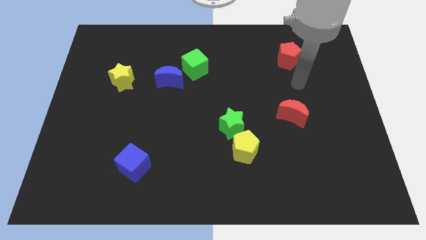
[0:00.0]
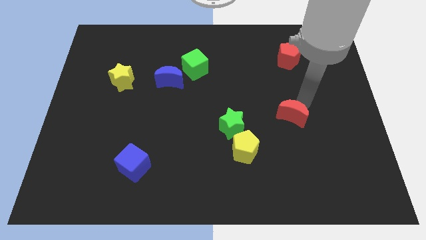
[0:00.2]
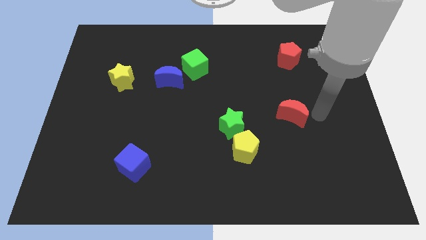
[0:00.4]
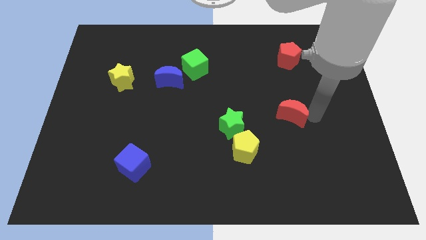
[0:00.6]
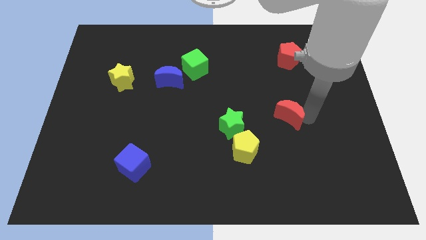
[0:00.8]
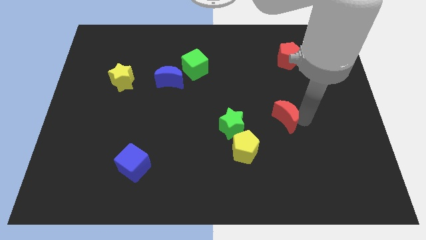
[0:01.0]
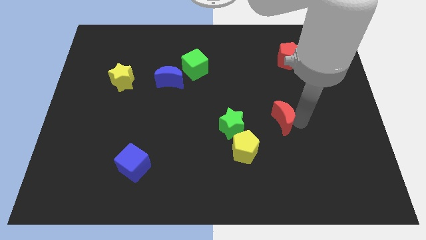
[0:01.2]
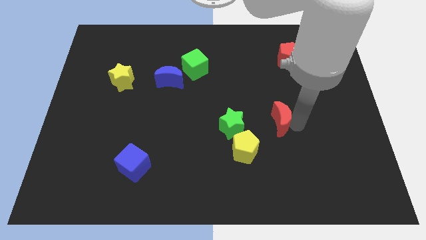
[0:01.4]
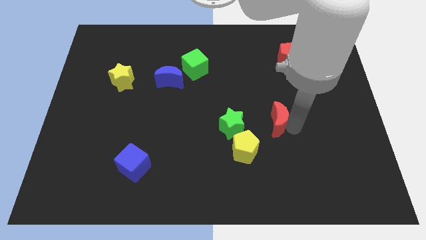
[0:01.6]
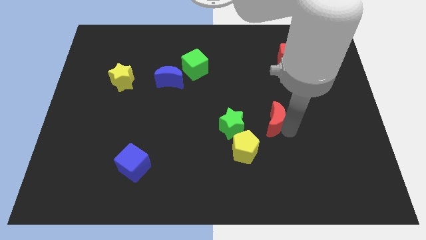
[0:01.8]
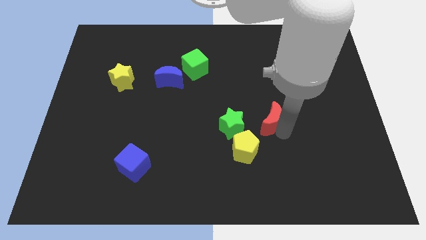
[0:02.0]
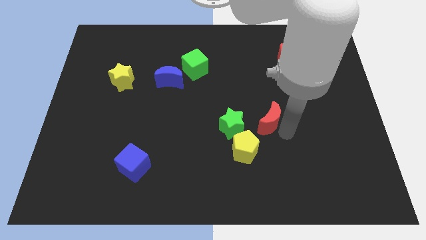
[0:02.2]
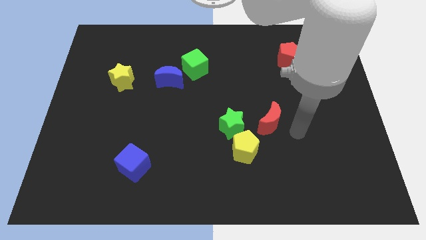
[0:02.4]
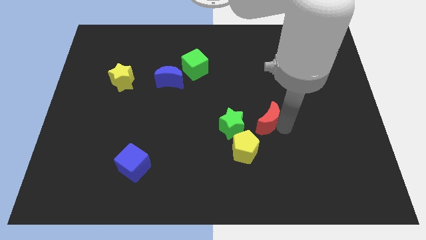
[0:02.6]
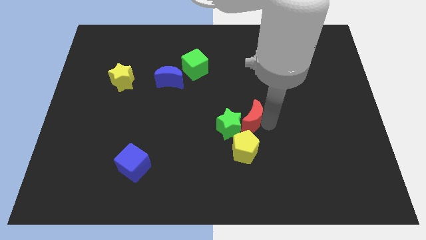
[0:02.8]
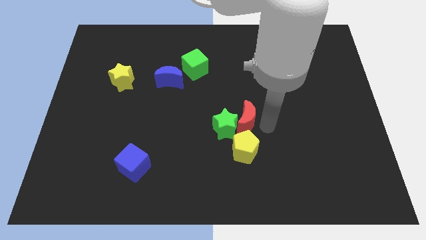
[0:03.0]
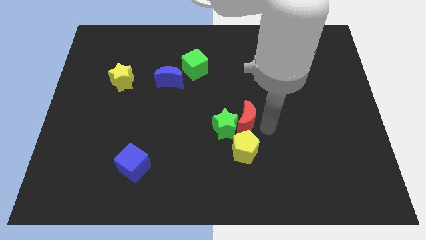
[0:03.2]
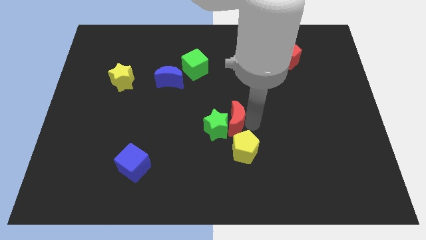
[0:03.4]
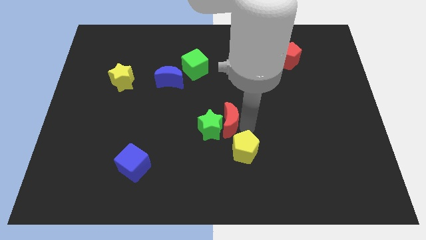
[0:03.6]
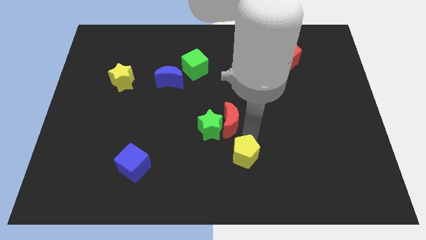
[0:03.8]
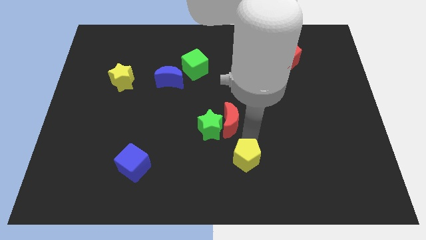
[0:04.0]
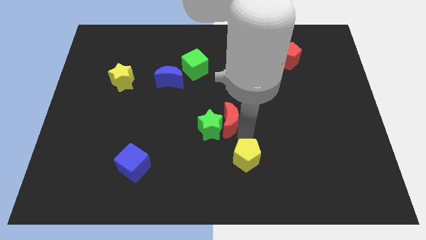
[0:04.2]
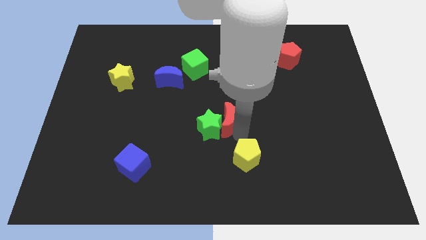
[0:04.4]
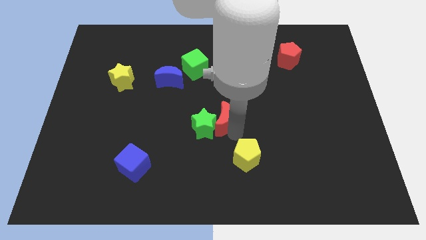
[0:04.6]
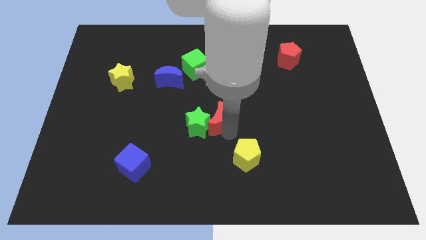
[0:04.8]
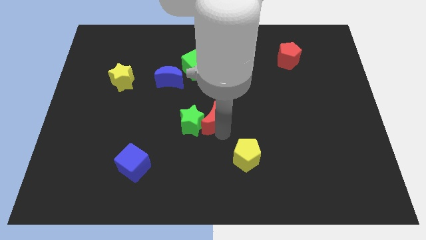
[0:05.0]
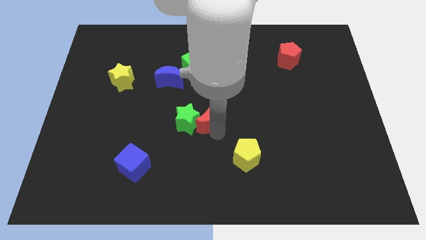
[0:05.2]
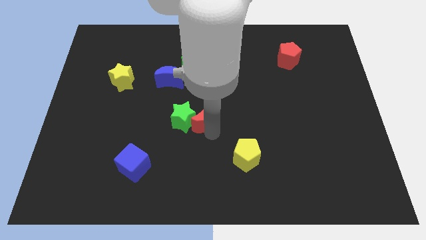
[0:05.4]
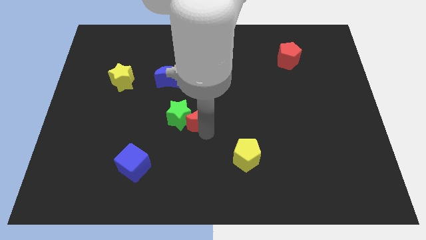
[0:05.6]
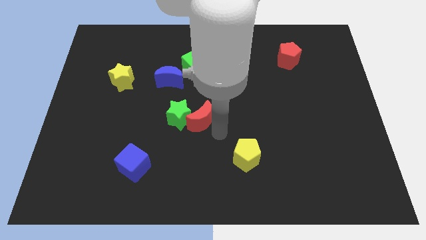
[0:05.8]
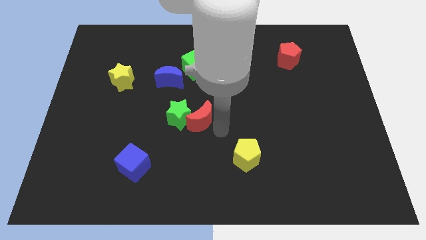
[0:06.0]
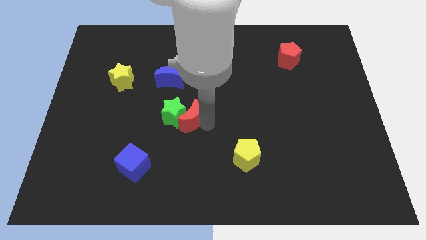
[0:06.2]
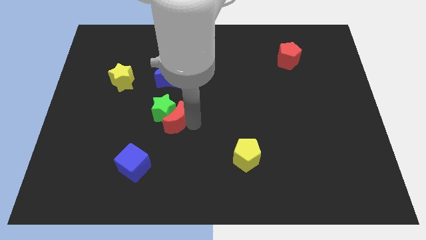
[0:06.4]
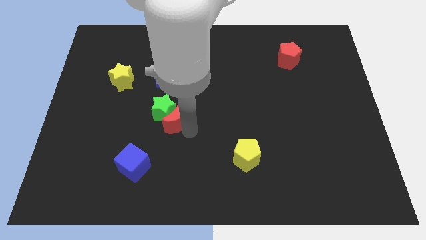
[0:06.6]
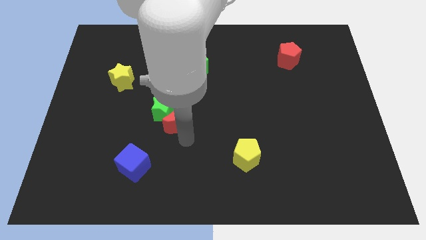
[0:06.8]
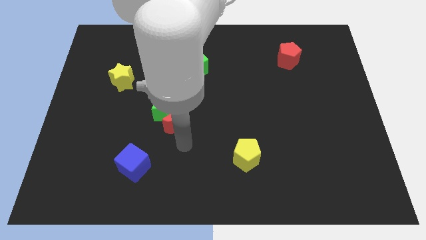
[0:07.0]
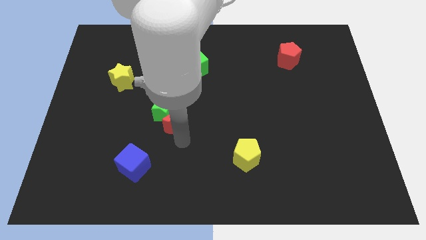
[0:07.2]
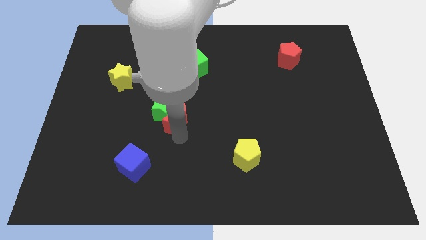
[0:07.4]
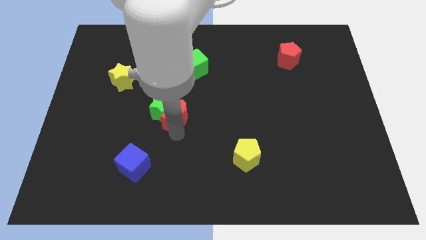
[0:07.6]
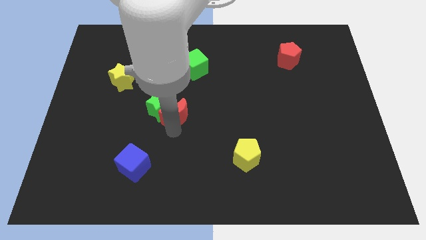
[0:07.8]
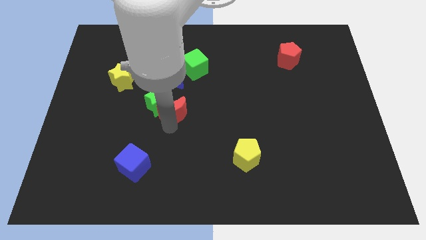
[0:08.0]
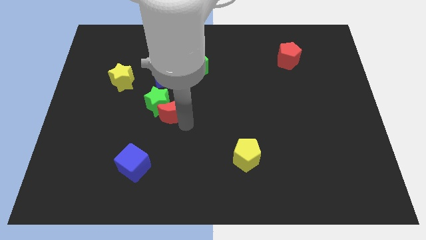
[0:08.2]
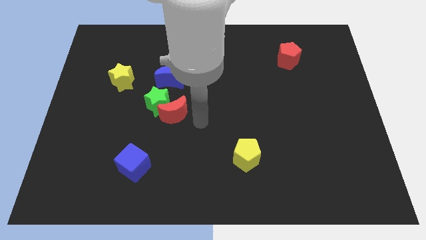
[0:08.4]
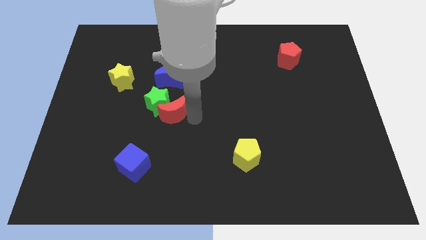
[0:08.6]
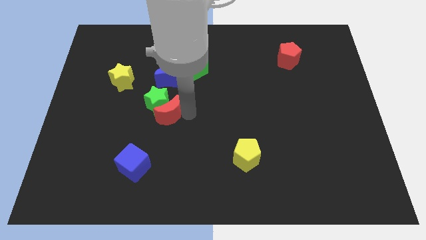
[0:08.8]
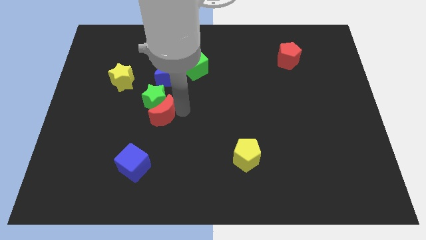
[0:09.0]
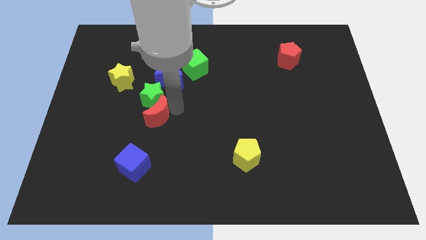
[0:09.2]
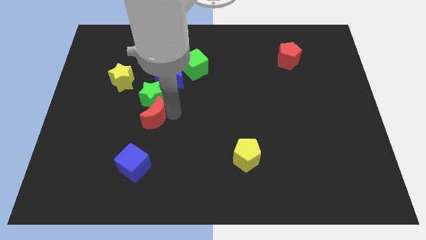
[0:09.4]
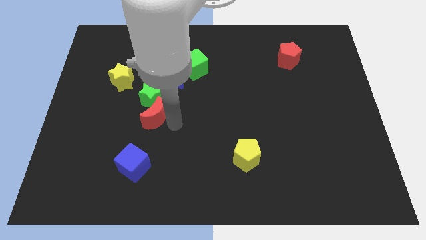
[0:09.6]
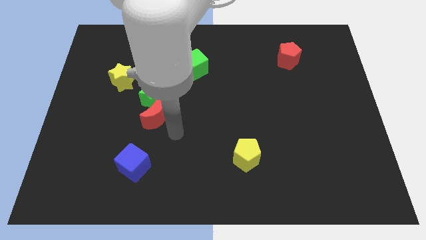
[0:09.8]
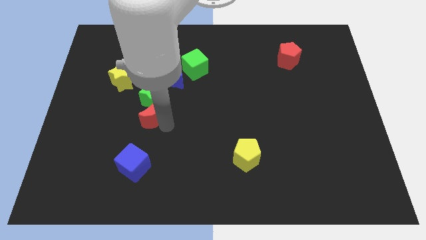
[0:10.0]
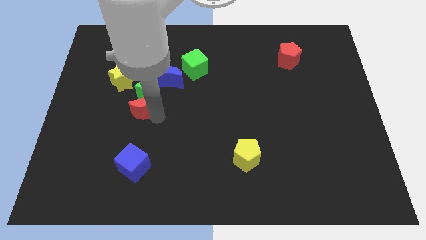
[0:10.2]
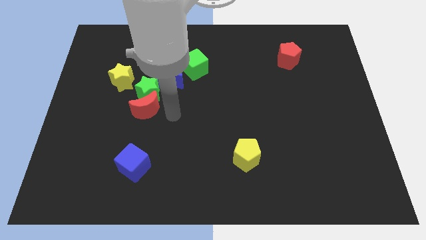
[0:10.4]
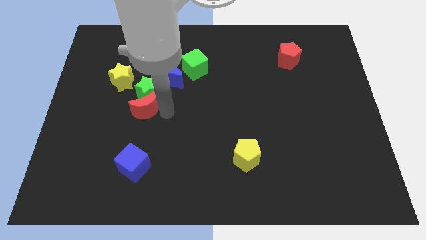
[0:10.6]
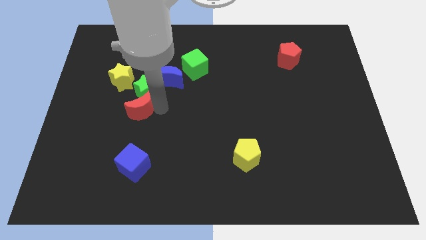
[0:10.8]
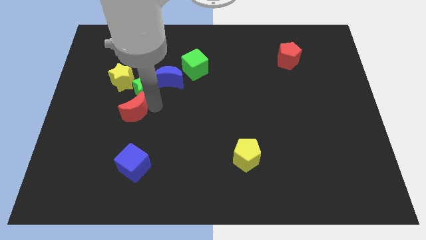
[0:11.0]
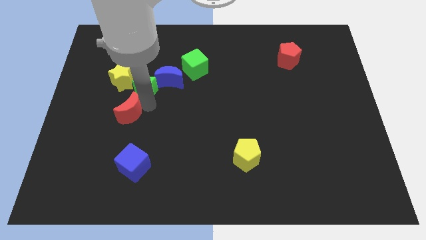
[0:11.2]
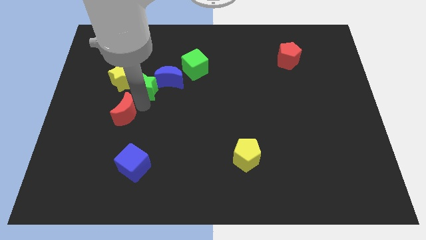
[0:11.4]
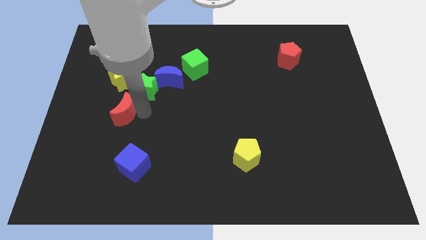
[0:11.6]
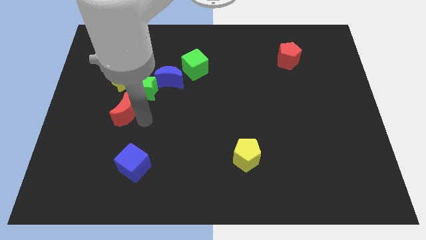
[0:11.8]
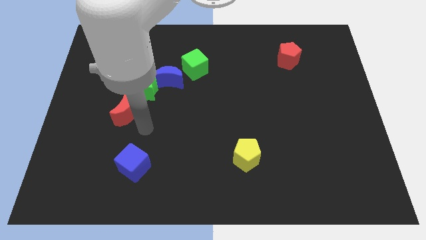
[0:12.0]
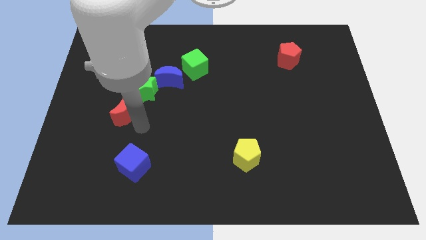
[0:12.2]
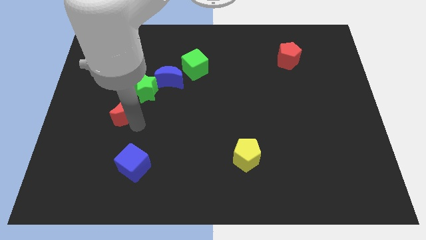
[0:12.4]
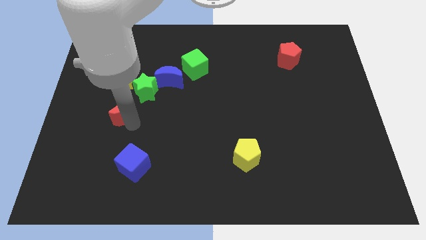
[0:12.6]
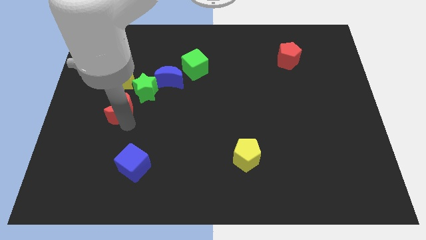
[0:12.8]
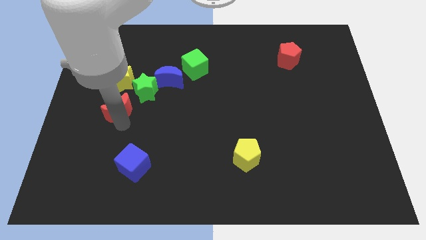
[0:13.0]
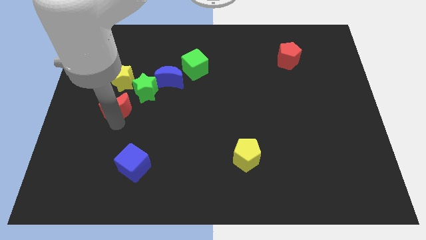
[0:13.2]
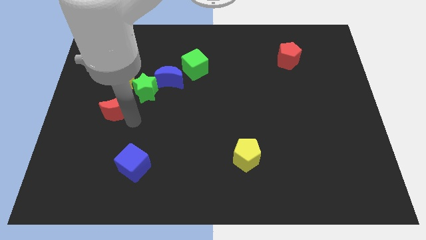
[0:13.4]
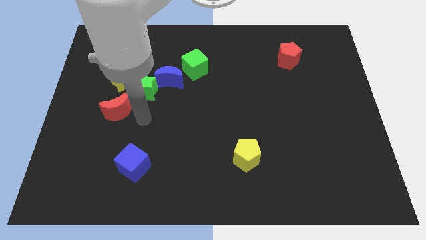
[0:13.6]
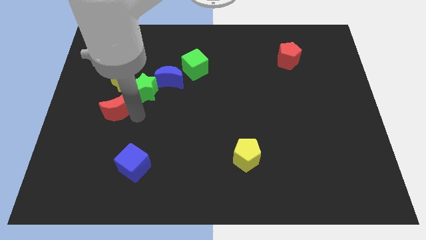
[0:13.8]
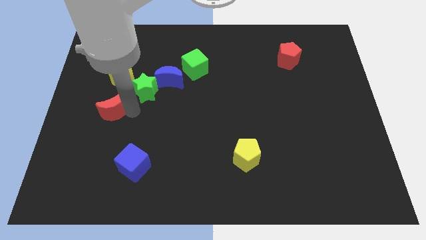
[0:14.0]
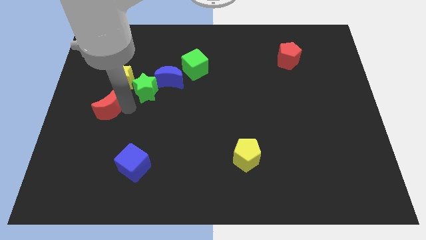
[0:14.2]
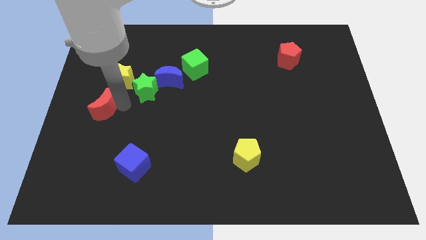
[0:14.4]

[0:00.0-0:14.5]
move the red moon to the left side of the board
